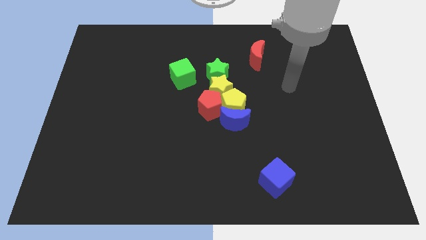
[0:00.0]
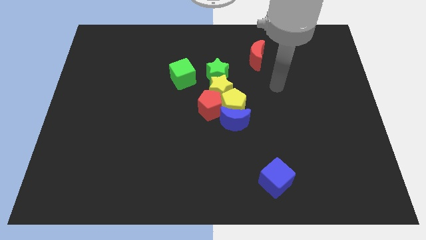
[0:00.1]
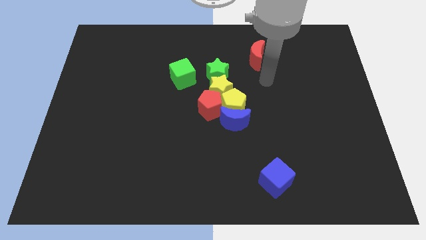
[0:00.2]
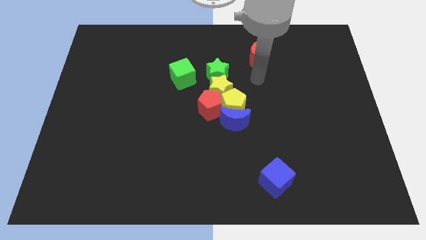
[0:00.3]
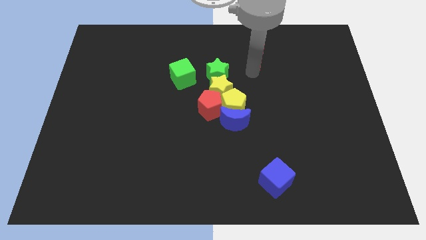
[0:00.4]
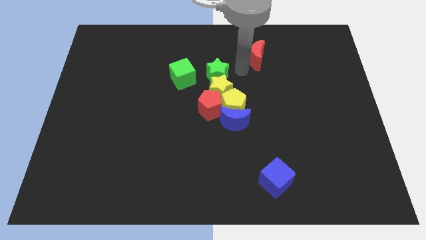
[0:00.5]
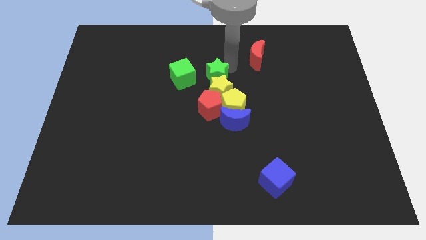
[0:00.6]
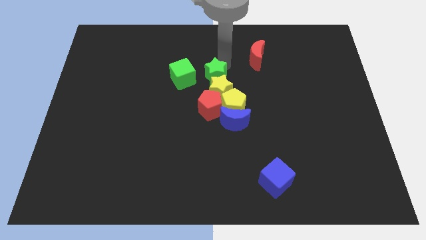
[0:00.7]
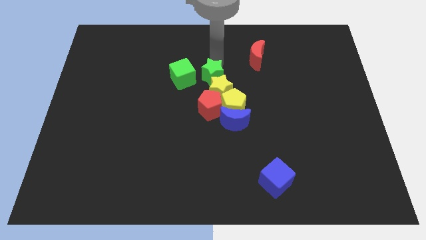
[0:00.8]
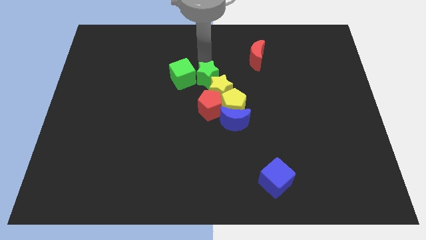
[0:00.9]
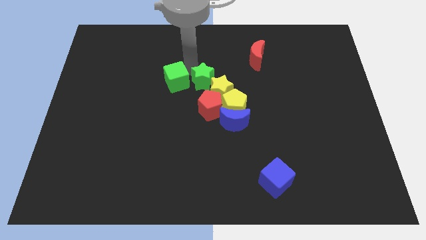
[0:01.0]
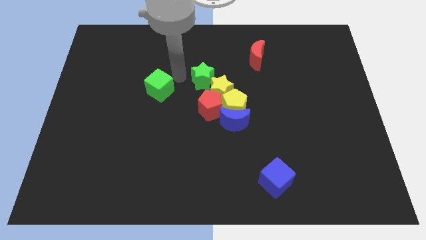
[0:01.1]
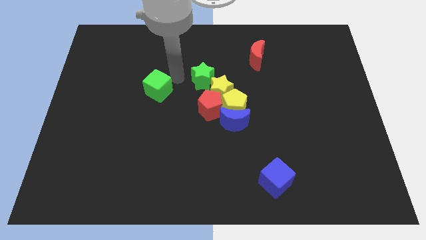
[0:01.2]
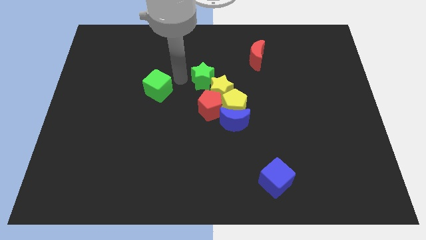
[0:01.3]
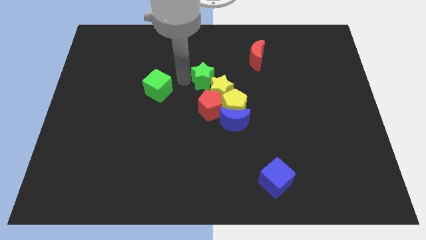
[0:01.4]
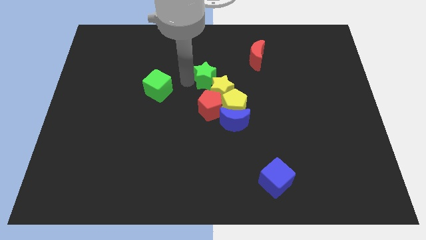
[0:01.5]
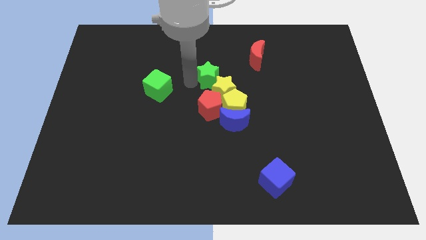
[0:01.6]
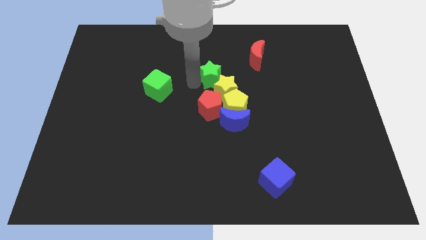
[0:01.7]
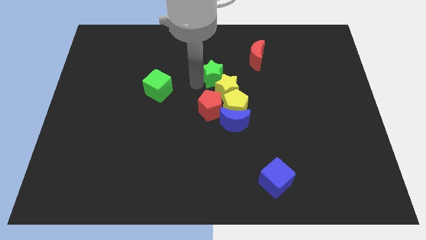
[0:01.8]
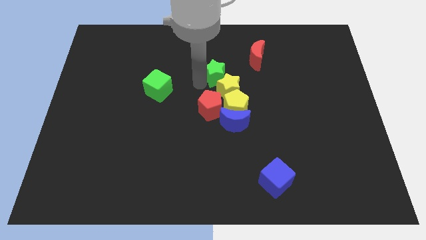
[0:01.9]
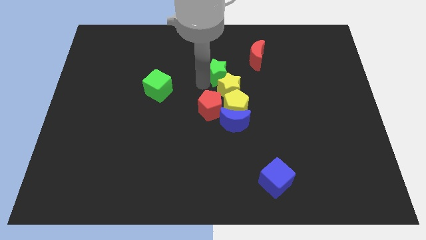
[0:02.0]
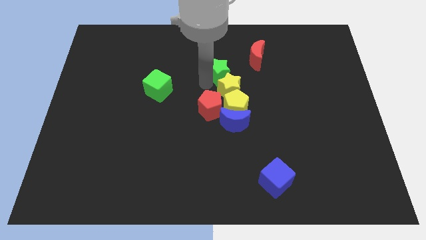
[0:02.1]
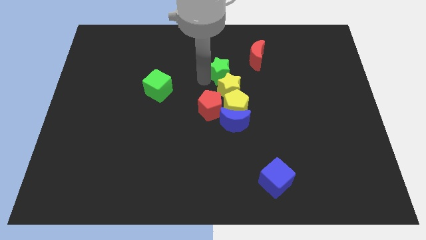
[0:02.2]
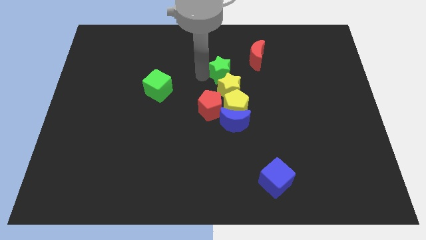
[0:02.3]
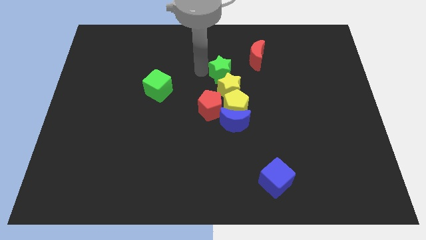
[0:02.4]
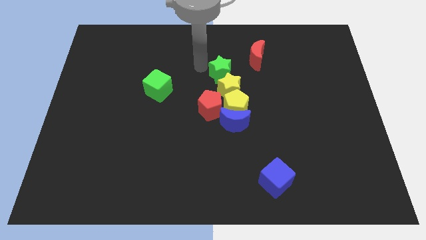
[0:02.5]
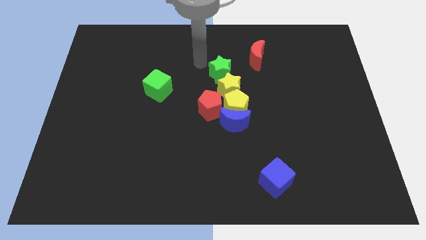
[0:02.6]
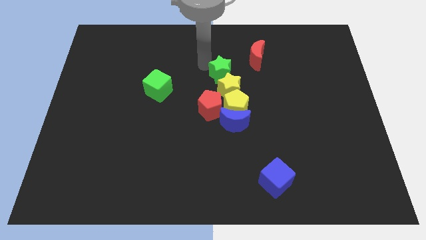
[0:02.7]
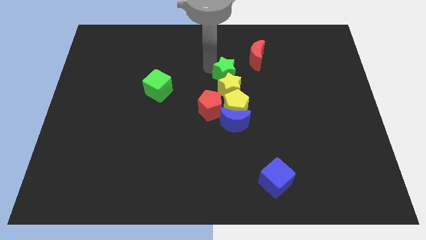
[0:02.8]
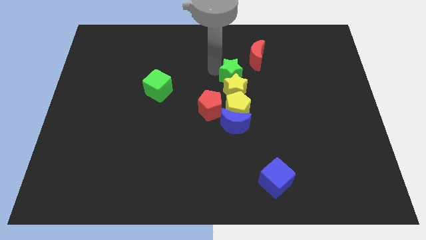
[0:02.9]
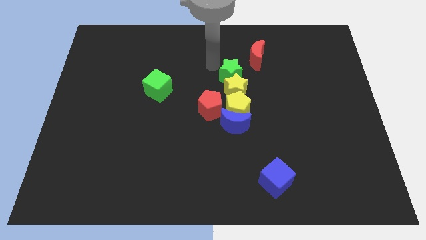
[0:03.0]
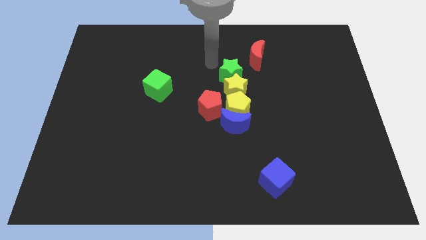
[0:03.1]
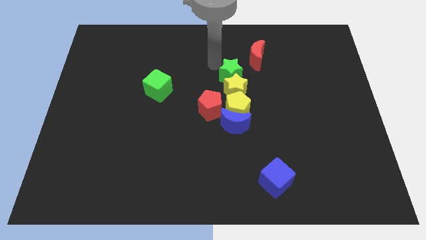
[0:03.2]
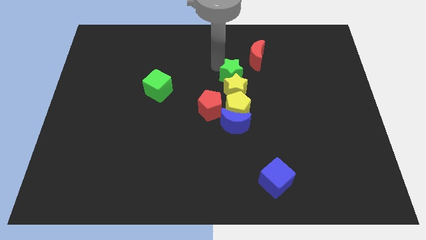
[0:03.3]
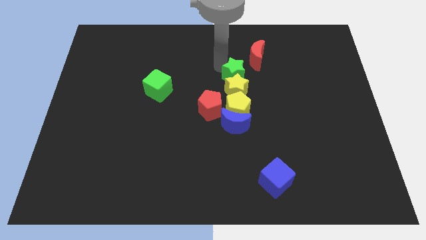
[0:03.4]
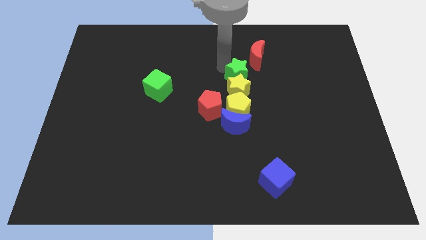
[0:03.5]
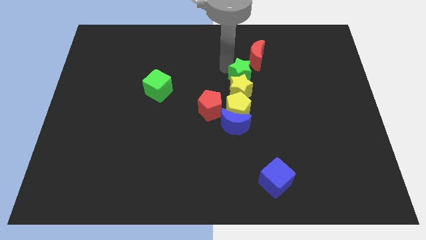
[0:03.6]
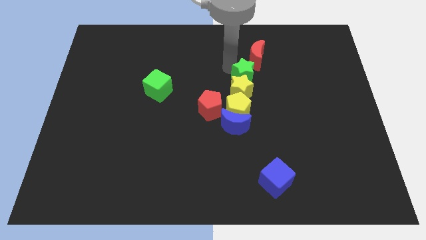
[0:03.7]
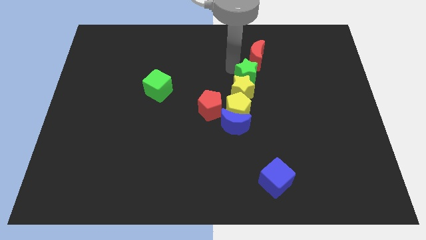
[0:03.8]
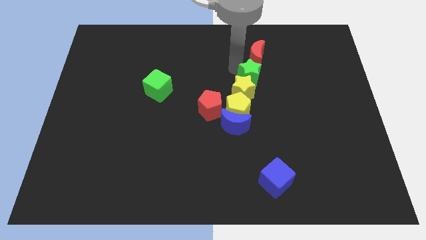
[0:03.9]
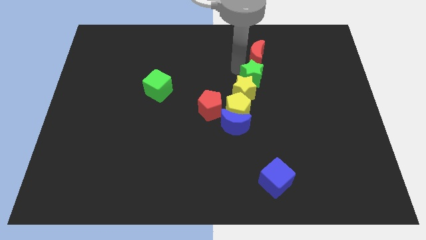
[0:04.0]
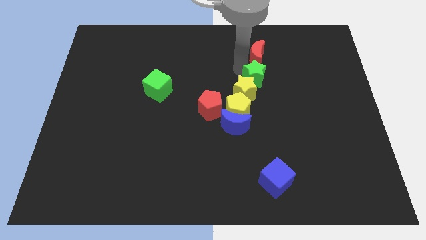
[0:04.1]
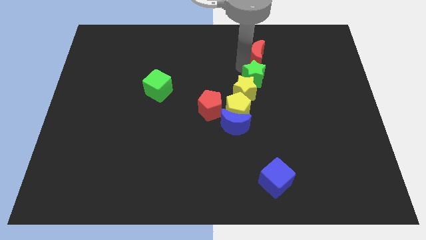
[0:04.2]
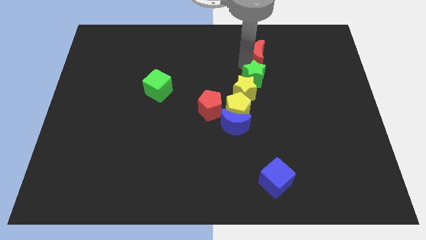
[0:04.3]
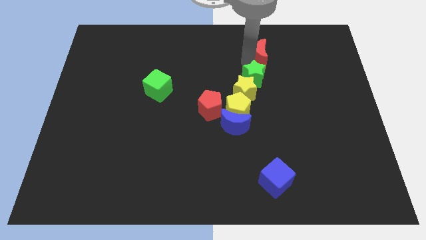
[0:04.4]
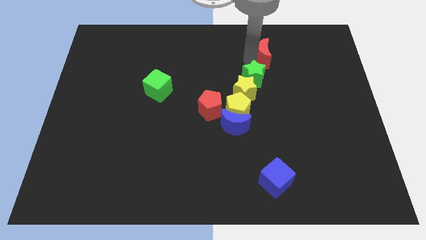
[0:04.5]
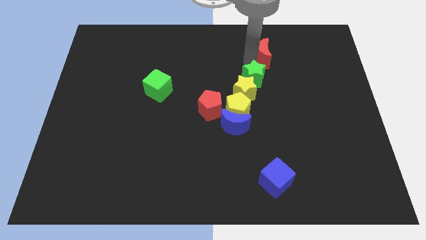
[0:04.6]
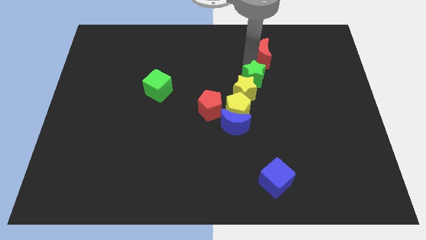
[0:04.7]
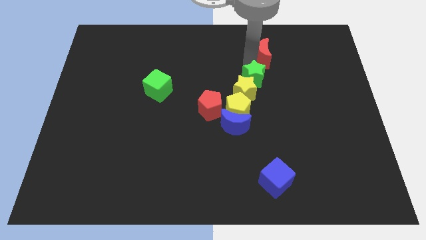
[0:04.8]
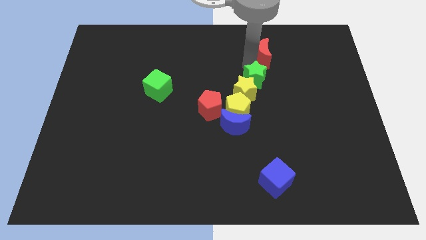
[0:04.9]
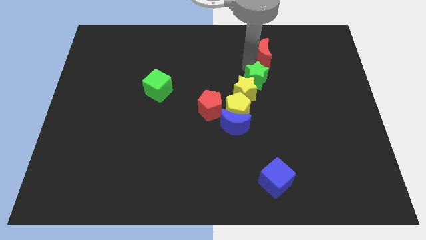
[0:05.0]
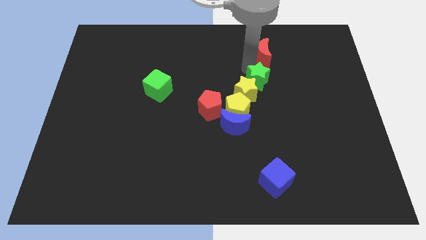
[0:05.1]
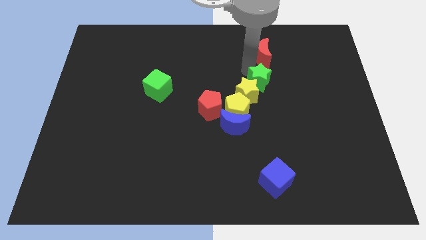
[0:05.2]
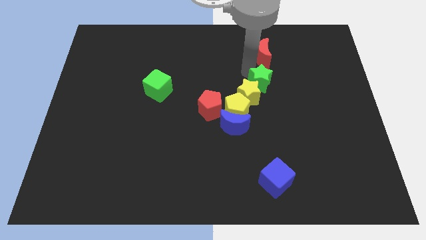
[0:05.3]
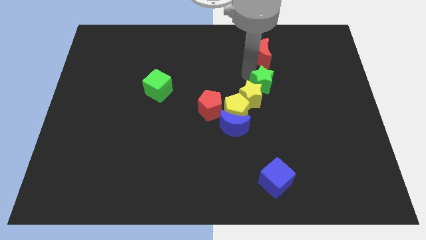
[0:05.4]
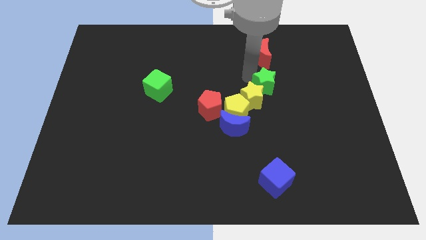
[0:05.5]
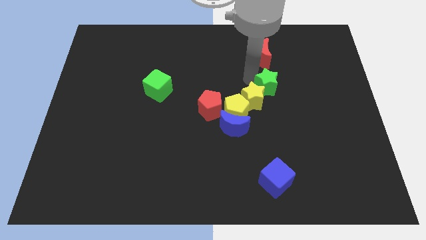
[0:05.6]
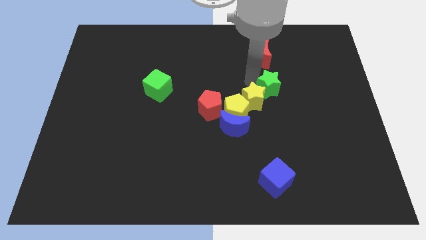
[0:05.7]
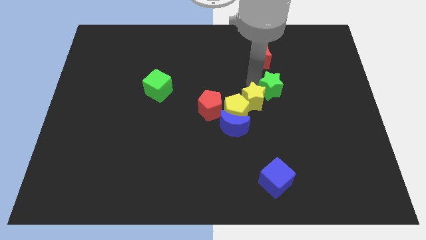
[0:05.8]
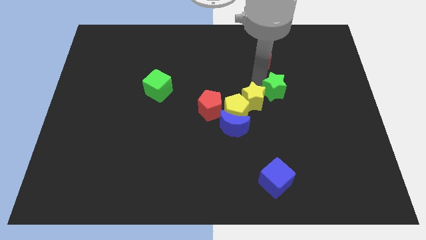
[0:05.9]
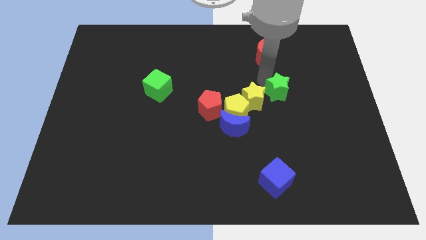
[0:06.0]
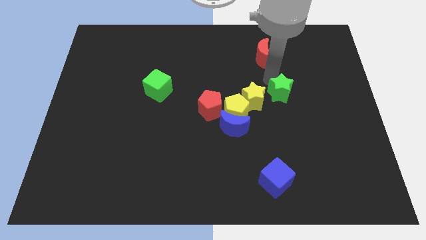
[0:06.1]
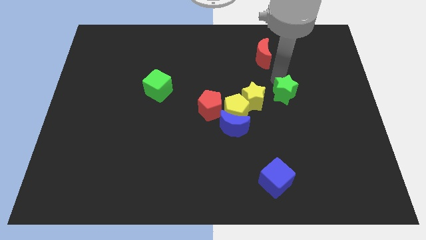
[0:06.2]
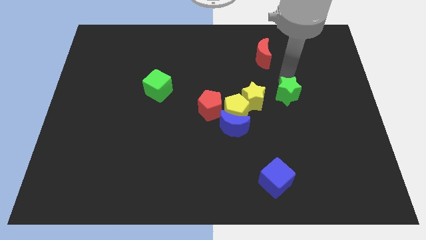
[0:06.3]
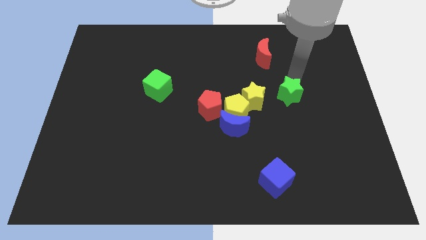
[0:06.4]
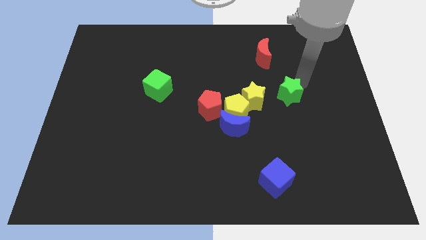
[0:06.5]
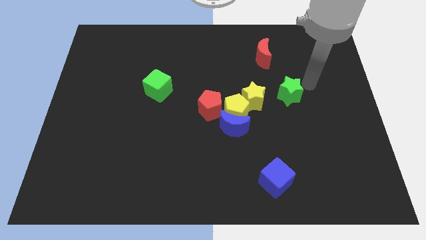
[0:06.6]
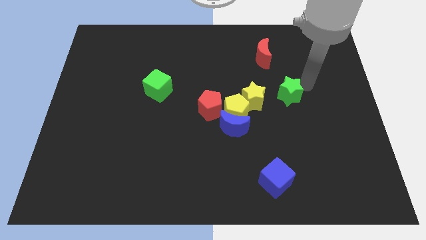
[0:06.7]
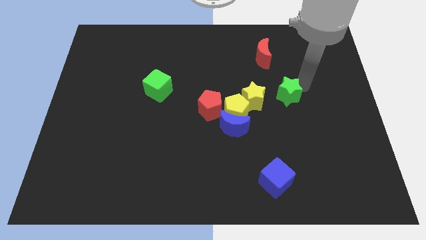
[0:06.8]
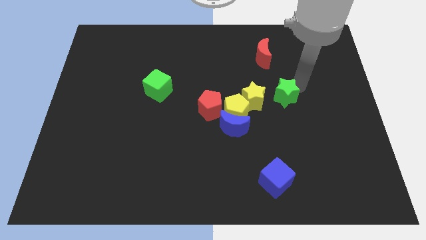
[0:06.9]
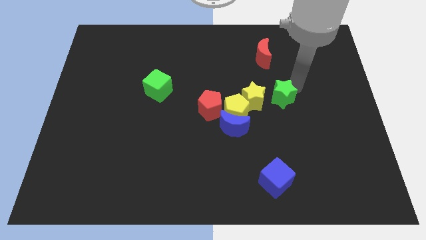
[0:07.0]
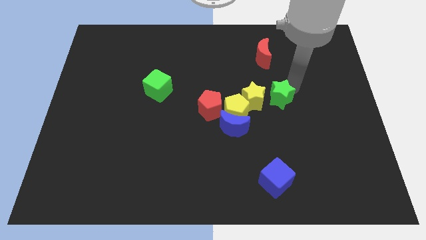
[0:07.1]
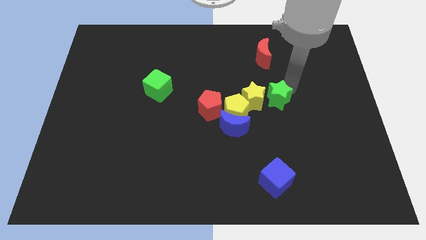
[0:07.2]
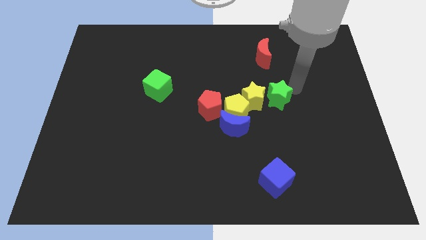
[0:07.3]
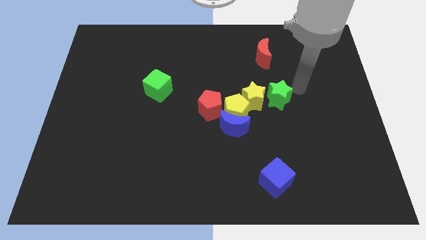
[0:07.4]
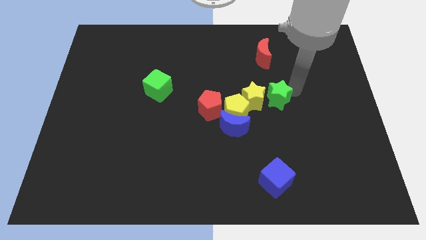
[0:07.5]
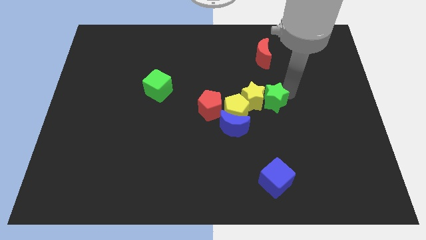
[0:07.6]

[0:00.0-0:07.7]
push the green star just right of the red pentagon
